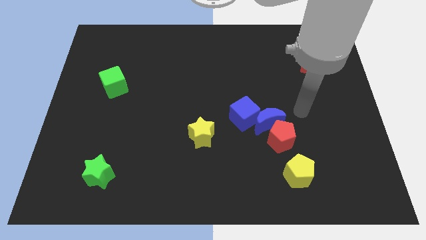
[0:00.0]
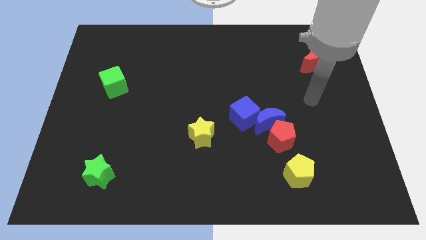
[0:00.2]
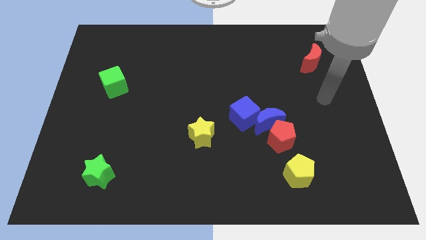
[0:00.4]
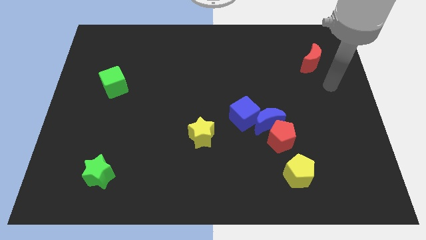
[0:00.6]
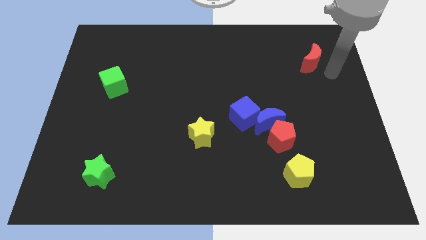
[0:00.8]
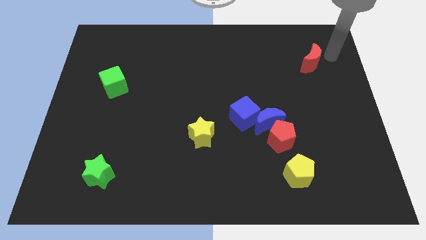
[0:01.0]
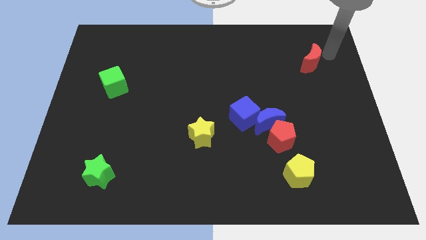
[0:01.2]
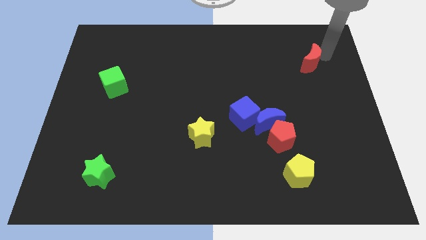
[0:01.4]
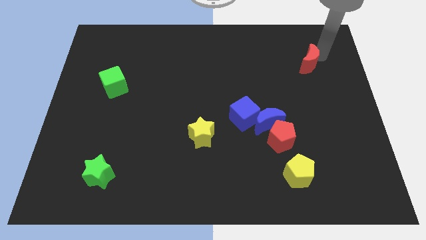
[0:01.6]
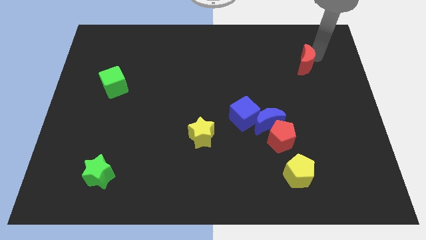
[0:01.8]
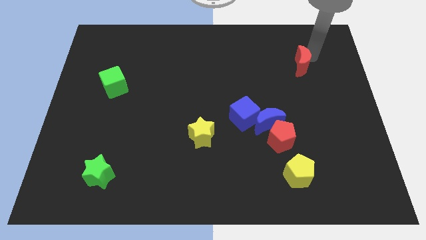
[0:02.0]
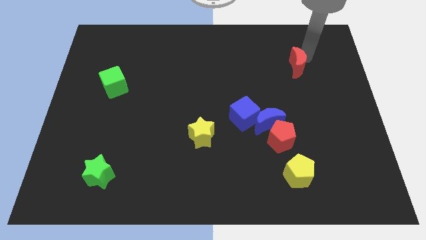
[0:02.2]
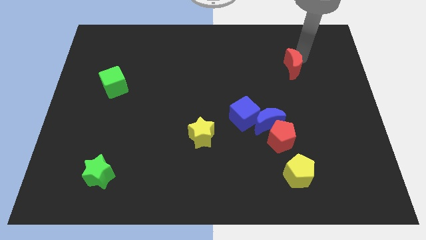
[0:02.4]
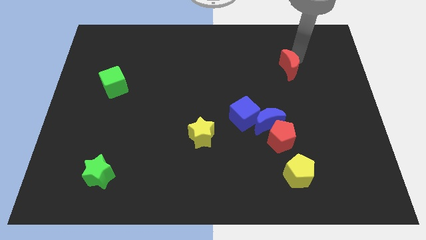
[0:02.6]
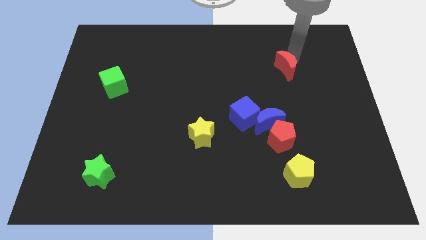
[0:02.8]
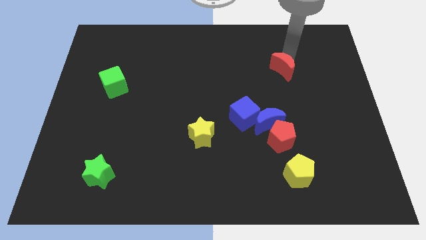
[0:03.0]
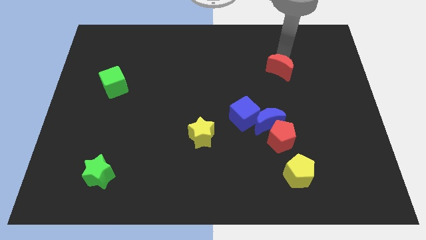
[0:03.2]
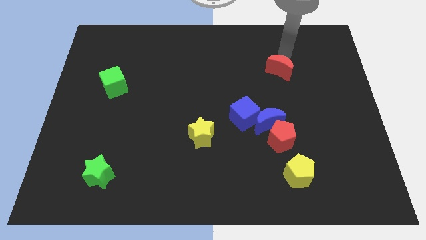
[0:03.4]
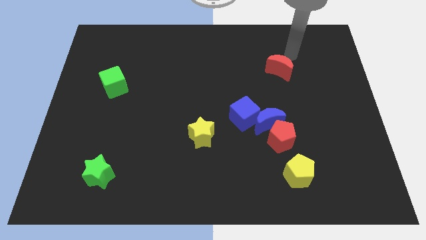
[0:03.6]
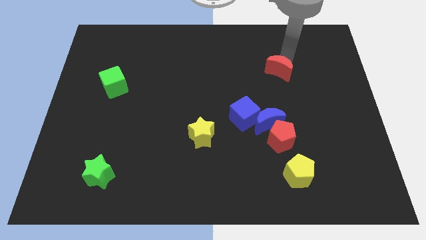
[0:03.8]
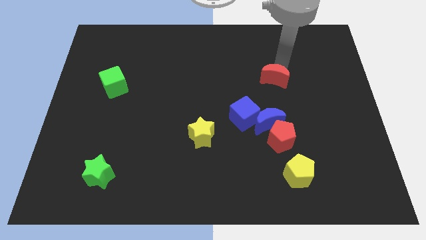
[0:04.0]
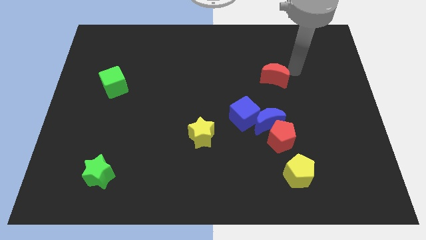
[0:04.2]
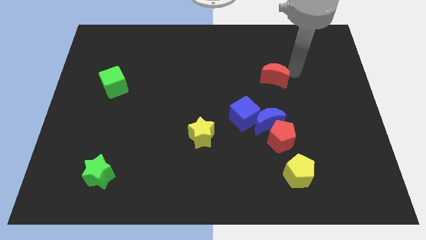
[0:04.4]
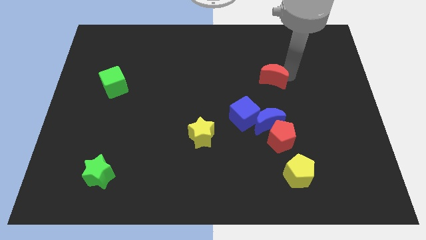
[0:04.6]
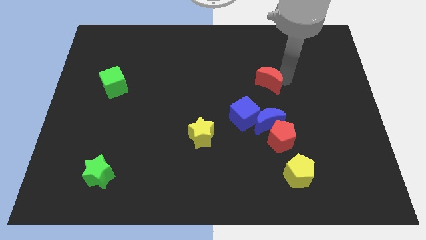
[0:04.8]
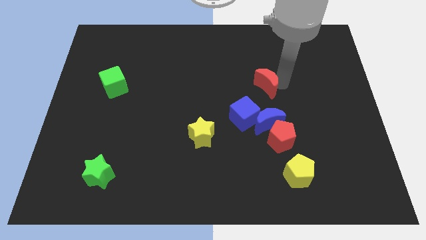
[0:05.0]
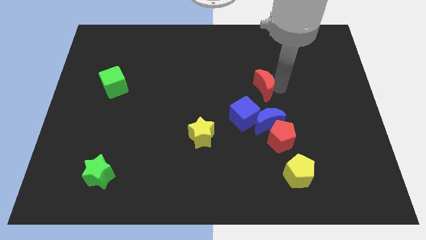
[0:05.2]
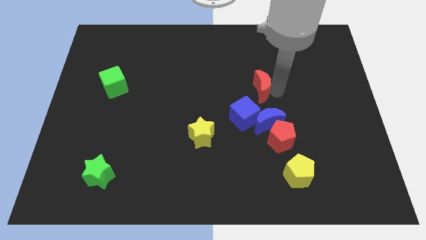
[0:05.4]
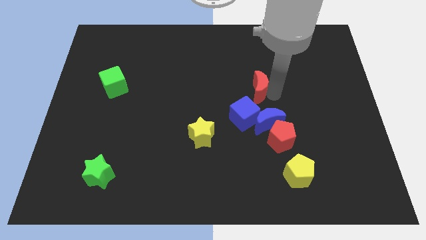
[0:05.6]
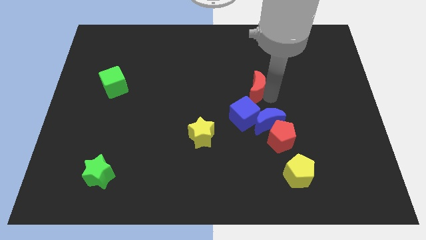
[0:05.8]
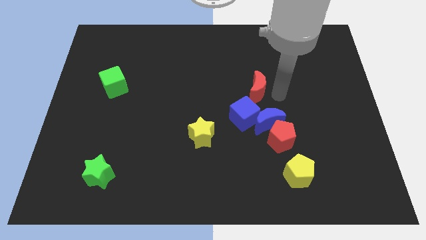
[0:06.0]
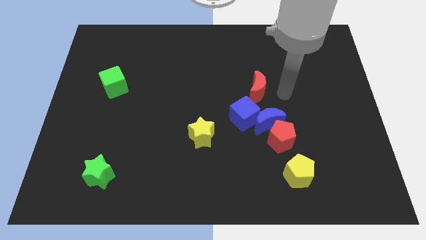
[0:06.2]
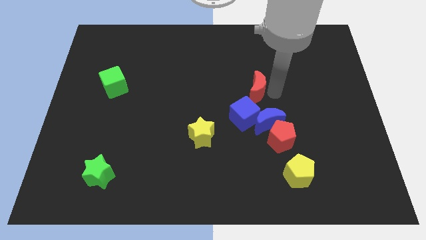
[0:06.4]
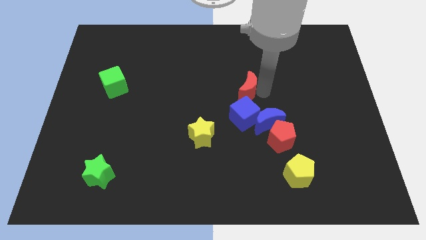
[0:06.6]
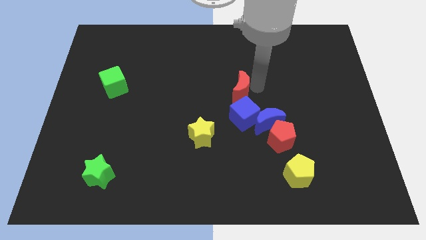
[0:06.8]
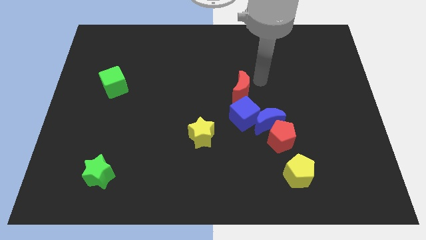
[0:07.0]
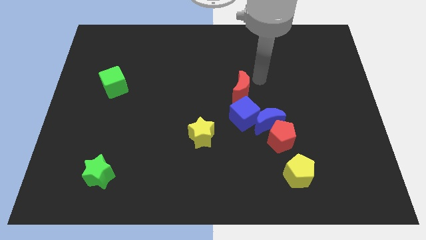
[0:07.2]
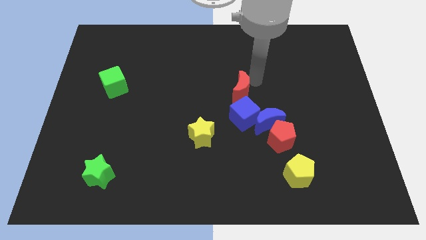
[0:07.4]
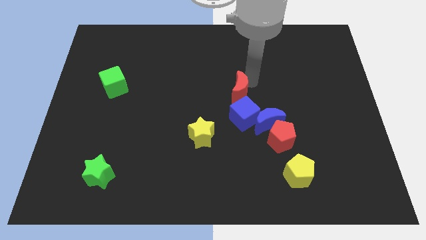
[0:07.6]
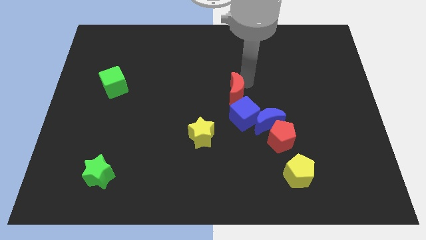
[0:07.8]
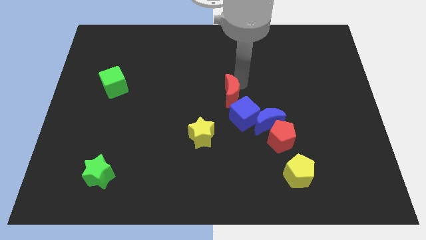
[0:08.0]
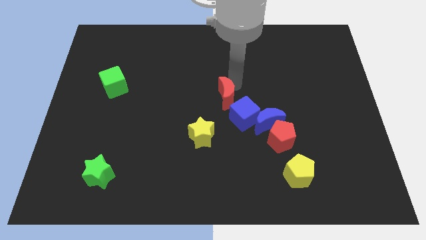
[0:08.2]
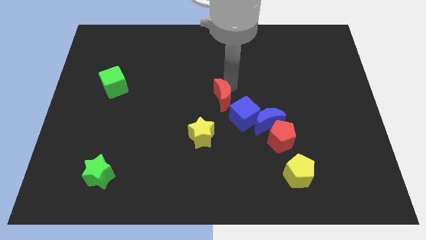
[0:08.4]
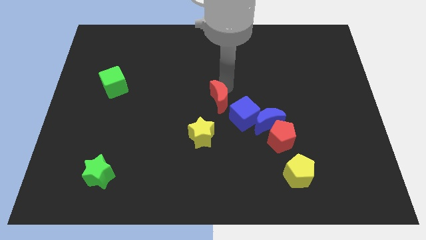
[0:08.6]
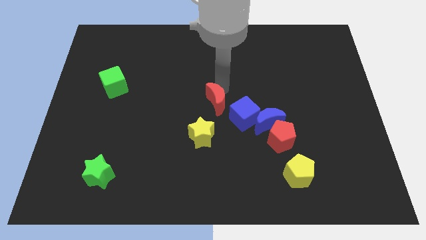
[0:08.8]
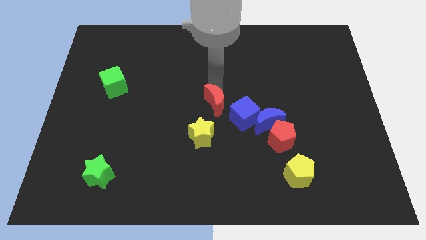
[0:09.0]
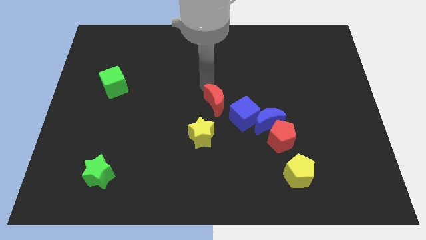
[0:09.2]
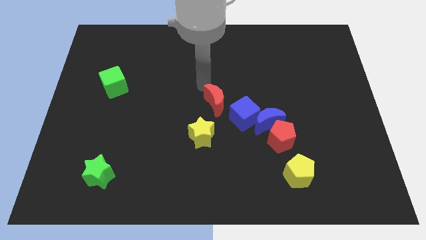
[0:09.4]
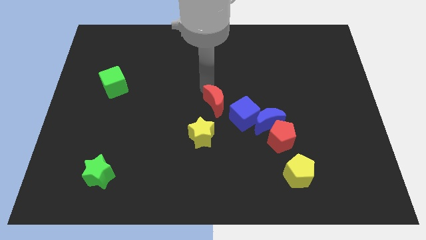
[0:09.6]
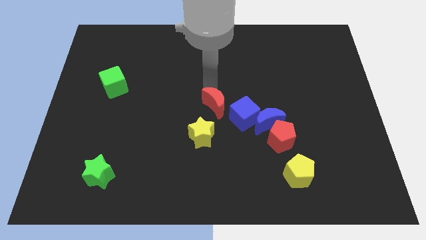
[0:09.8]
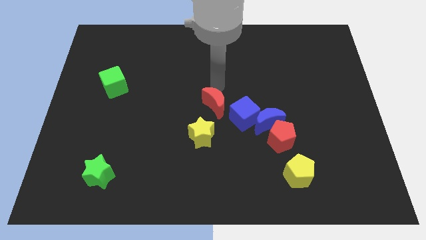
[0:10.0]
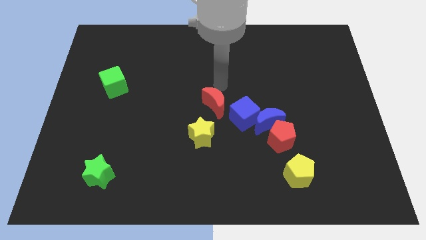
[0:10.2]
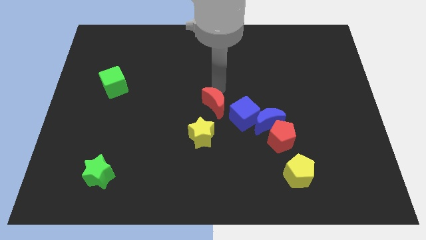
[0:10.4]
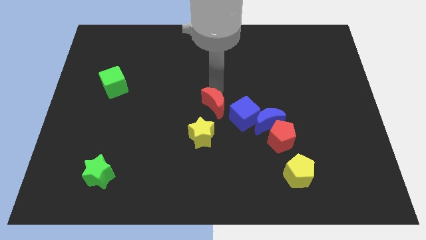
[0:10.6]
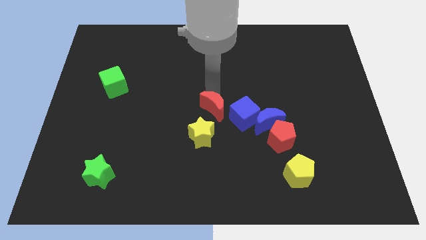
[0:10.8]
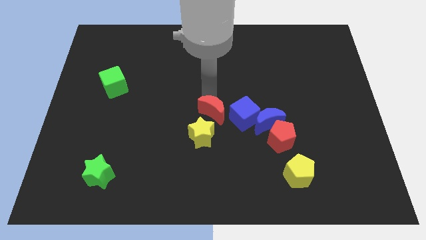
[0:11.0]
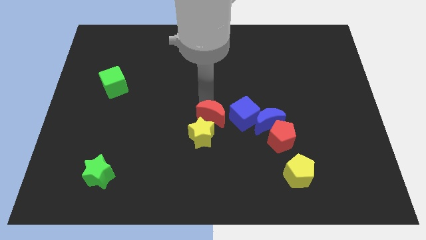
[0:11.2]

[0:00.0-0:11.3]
put the red moon close to the yellow star

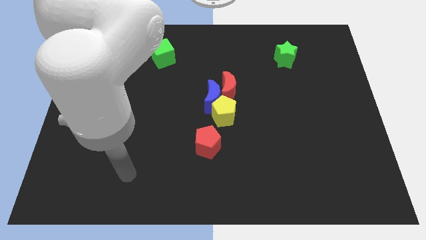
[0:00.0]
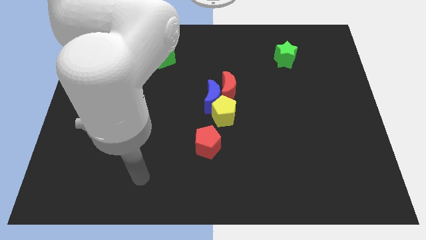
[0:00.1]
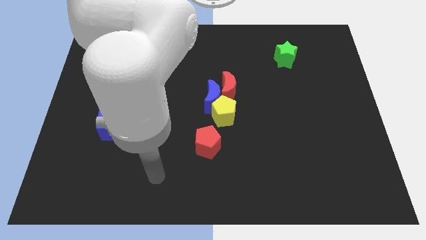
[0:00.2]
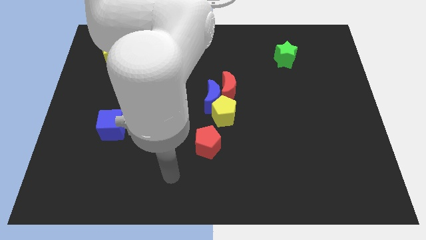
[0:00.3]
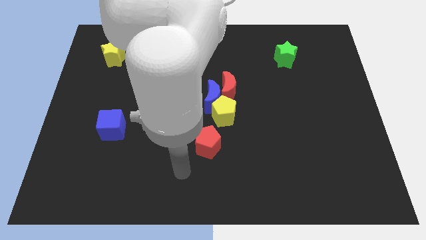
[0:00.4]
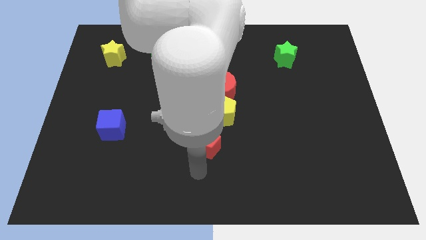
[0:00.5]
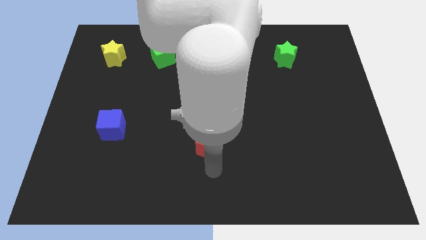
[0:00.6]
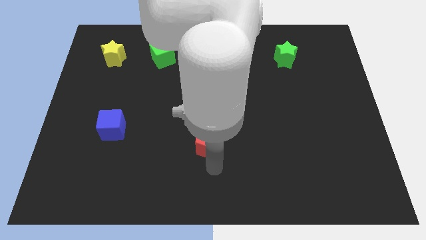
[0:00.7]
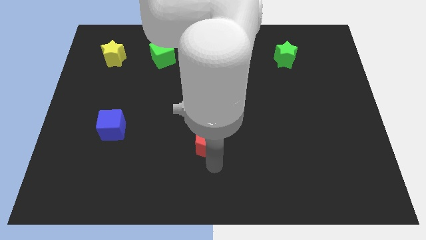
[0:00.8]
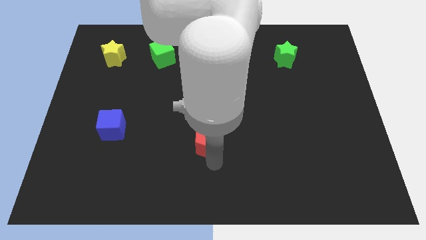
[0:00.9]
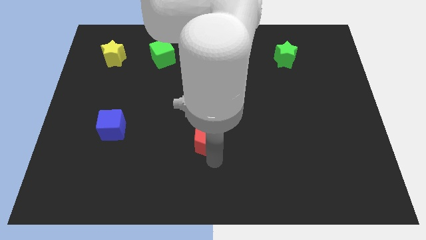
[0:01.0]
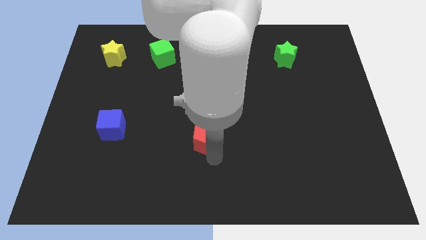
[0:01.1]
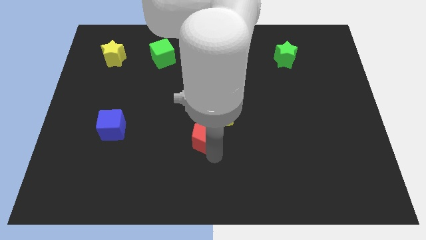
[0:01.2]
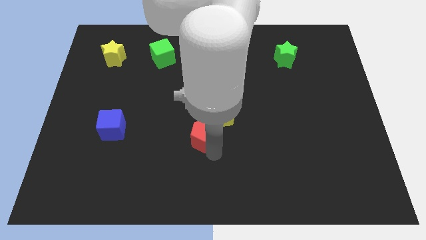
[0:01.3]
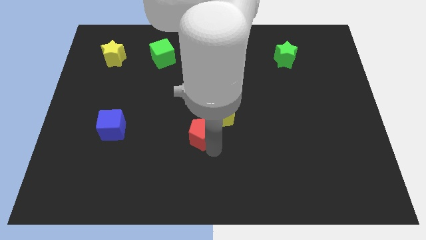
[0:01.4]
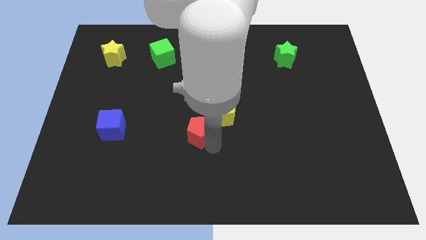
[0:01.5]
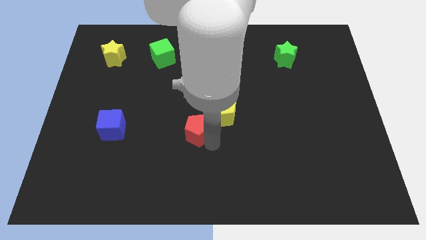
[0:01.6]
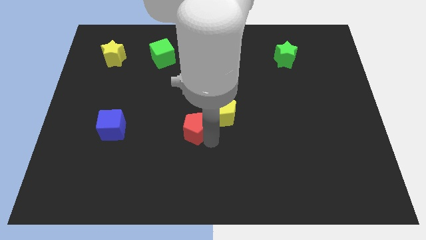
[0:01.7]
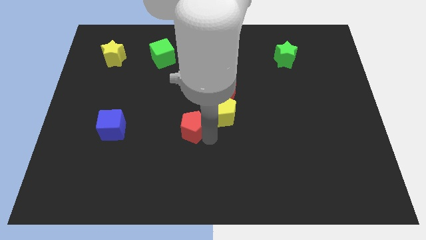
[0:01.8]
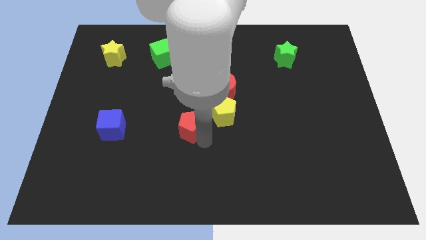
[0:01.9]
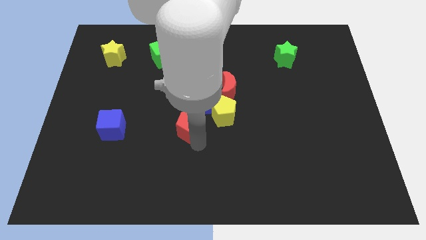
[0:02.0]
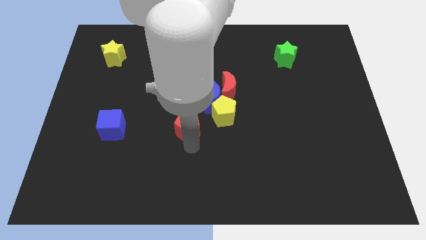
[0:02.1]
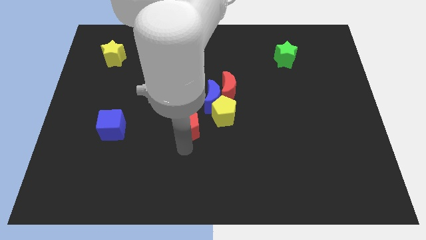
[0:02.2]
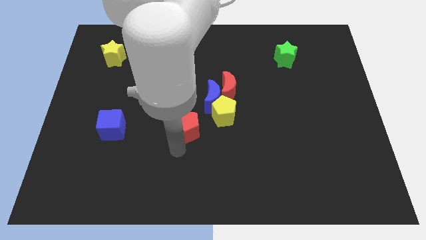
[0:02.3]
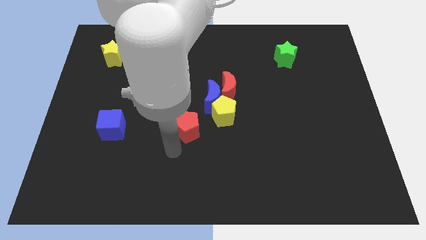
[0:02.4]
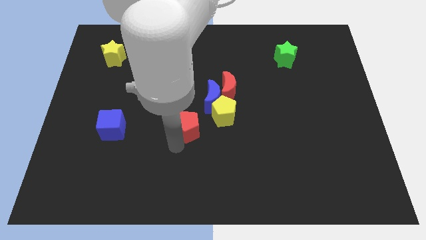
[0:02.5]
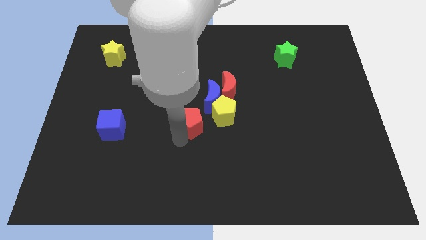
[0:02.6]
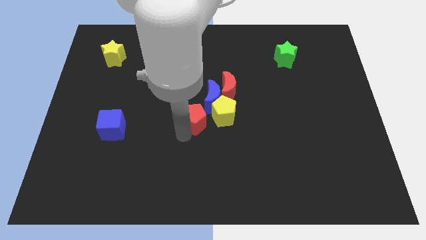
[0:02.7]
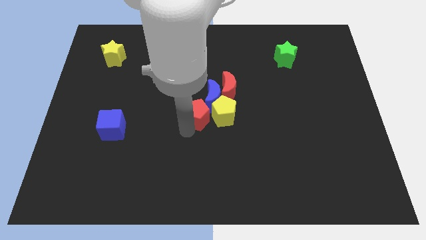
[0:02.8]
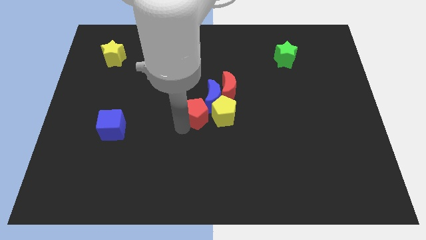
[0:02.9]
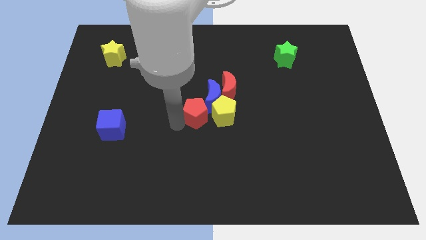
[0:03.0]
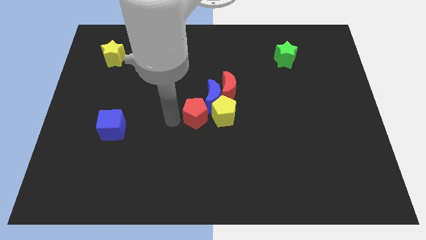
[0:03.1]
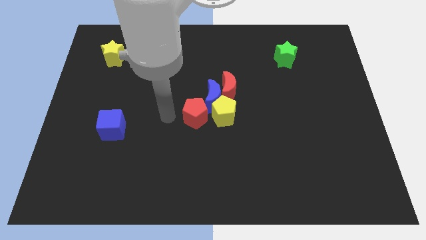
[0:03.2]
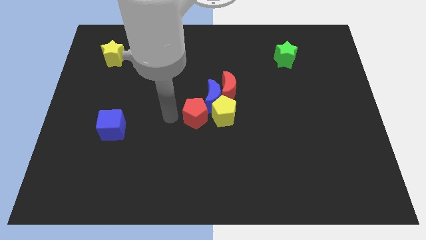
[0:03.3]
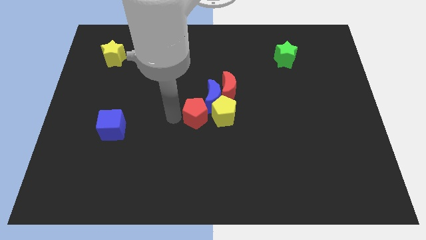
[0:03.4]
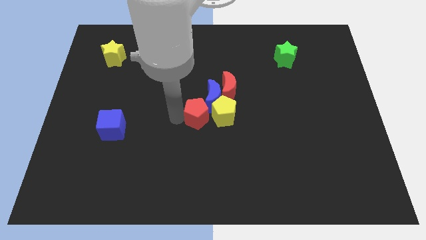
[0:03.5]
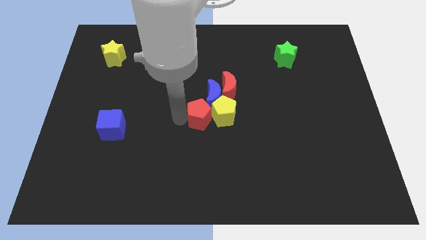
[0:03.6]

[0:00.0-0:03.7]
put the red pentagon towards the yellow pentagon
